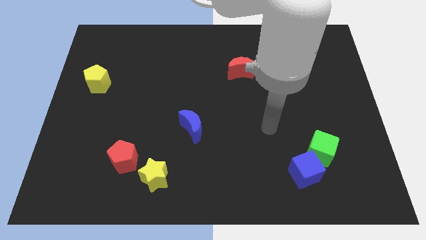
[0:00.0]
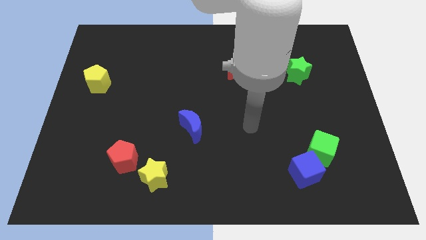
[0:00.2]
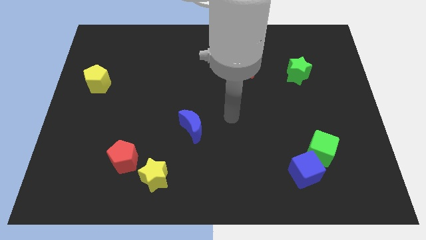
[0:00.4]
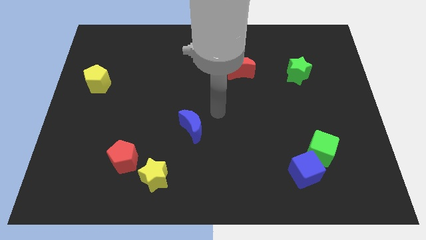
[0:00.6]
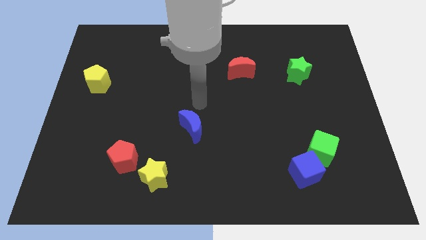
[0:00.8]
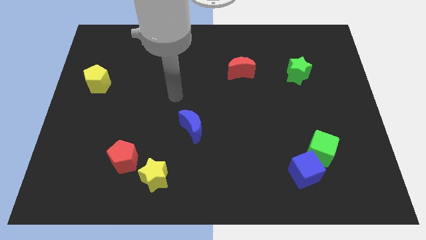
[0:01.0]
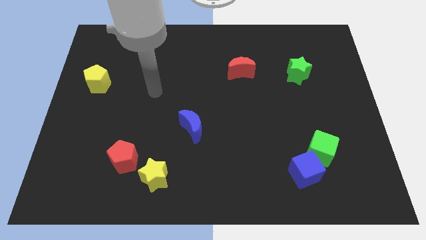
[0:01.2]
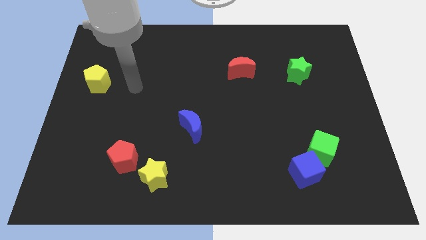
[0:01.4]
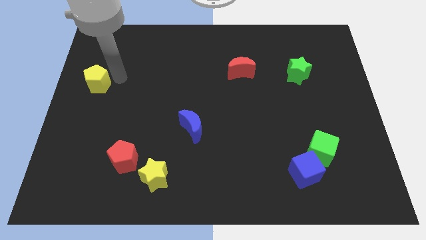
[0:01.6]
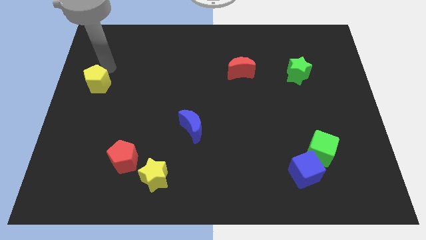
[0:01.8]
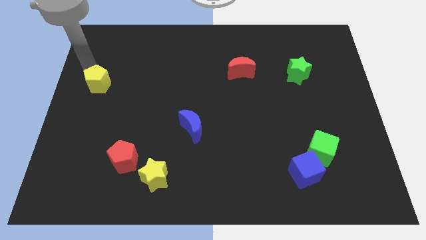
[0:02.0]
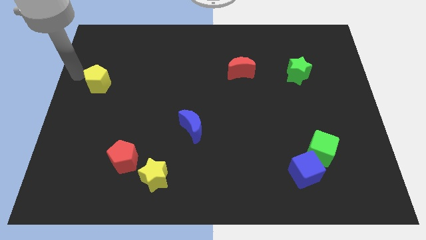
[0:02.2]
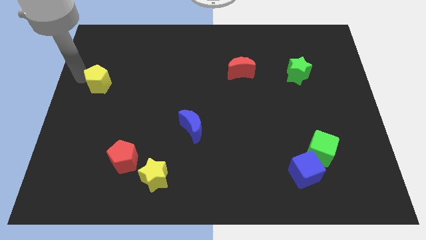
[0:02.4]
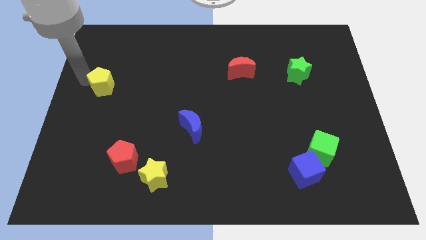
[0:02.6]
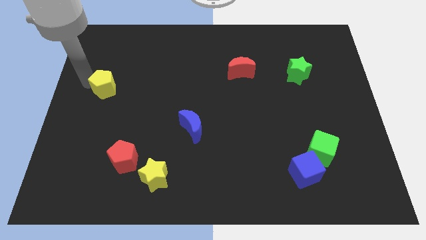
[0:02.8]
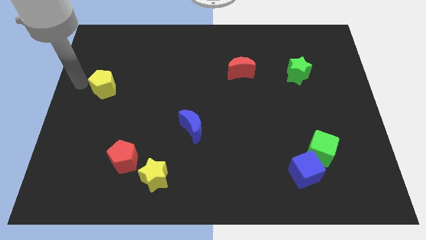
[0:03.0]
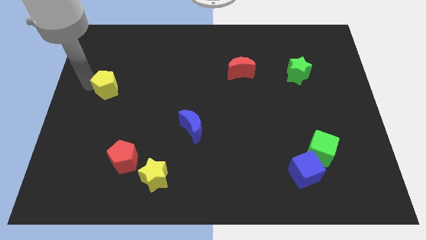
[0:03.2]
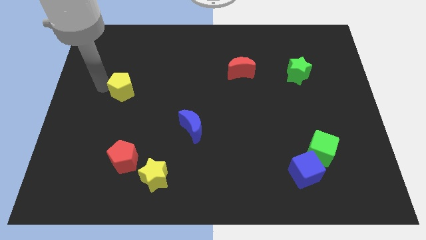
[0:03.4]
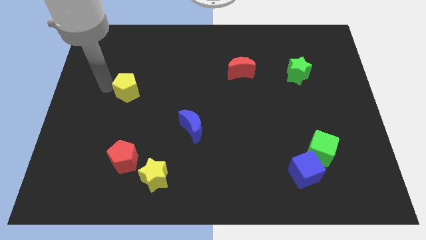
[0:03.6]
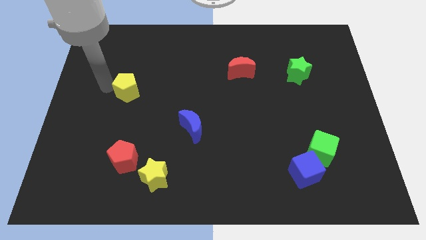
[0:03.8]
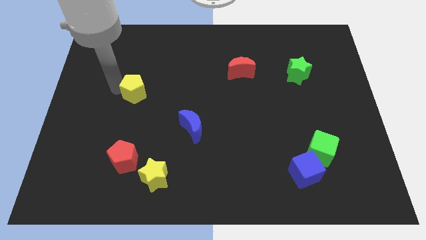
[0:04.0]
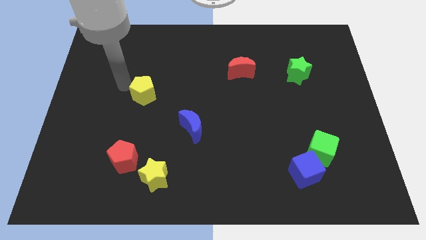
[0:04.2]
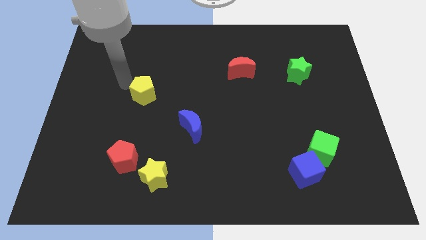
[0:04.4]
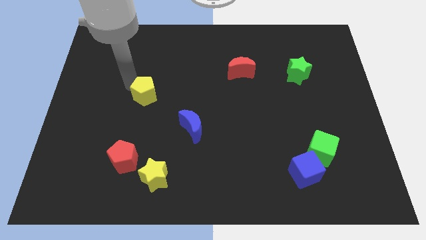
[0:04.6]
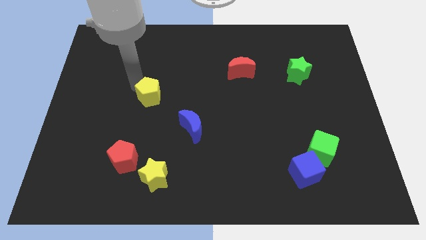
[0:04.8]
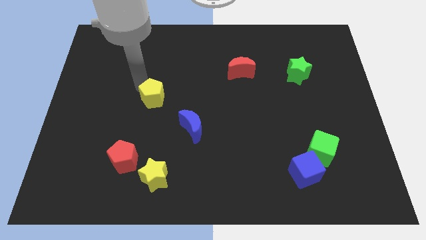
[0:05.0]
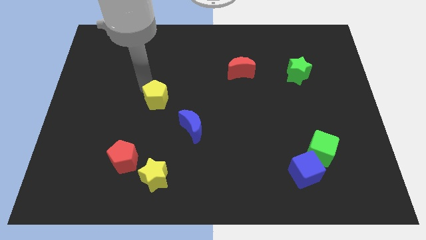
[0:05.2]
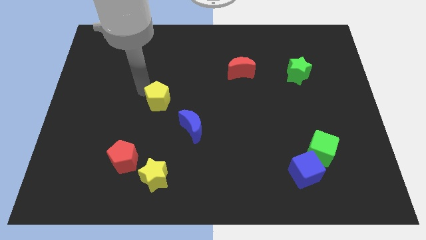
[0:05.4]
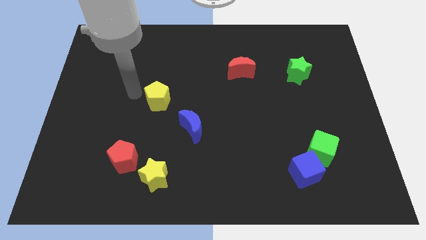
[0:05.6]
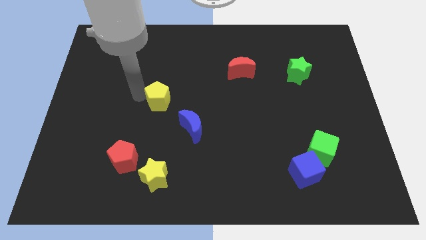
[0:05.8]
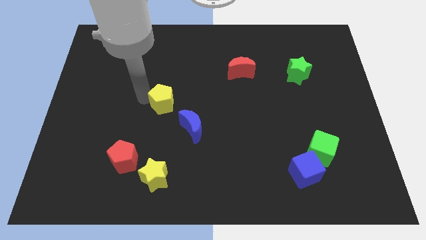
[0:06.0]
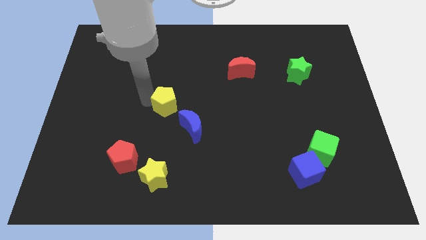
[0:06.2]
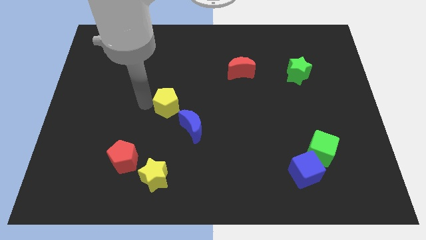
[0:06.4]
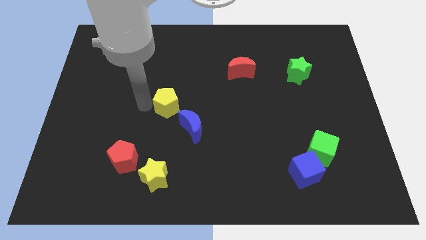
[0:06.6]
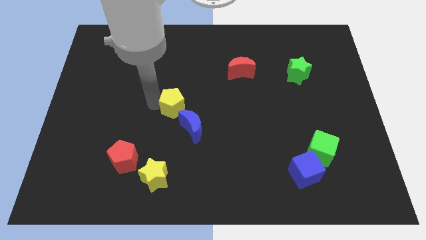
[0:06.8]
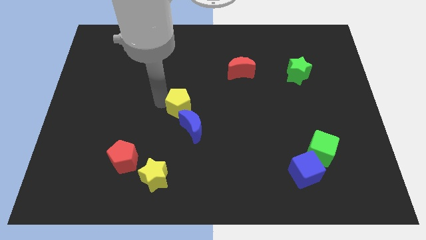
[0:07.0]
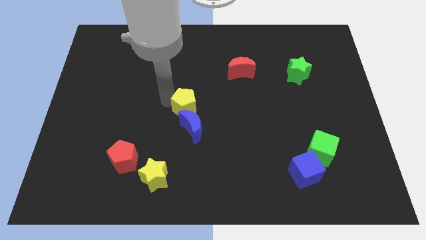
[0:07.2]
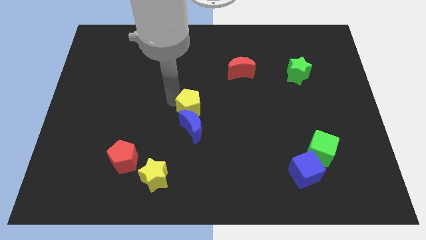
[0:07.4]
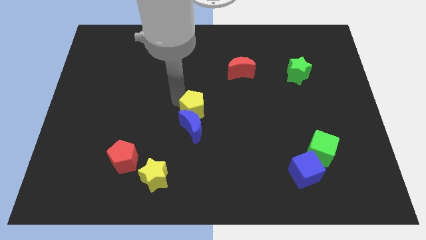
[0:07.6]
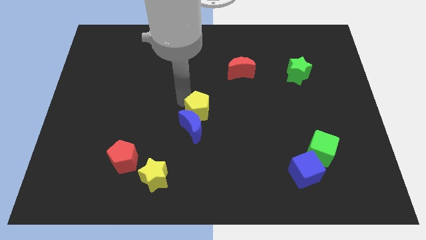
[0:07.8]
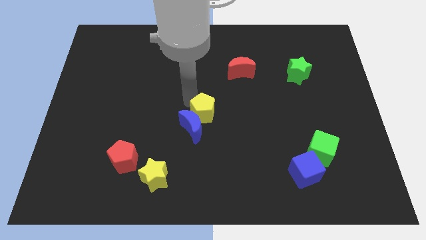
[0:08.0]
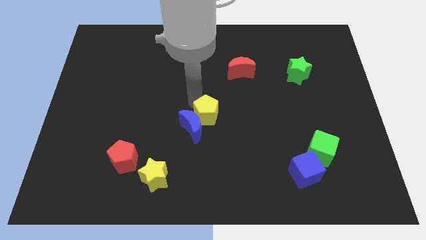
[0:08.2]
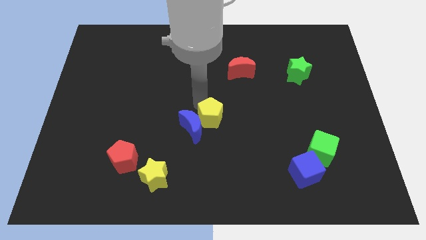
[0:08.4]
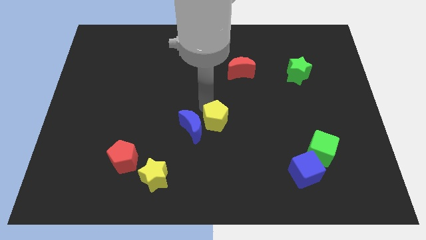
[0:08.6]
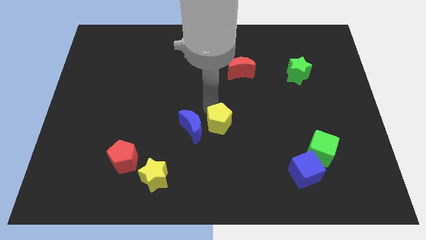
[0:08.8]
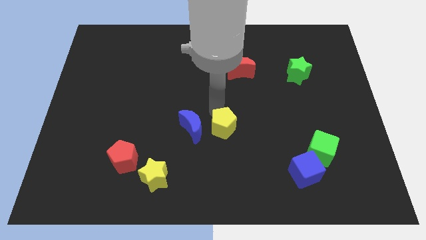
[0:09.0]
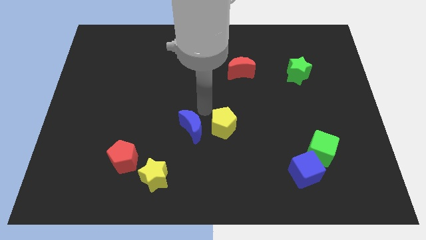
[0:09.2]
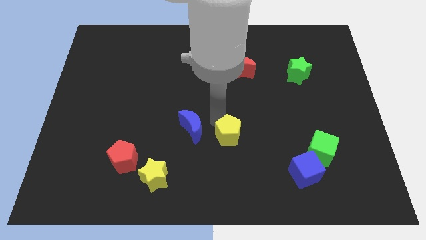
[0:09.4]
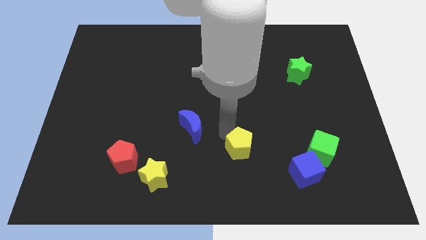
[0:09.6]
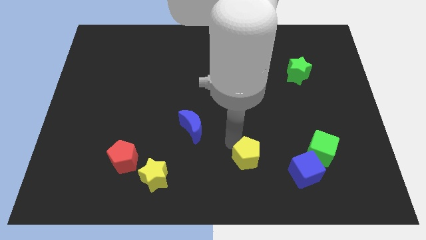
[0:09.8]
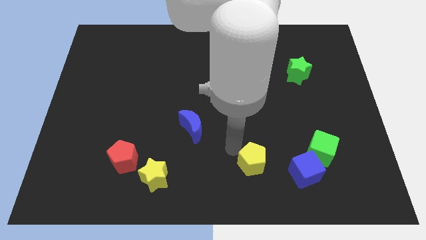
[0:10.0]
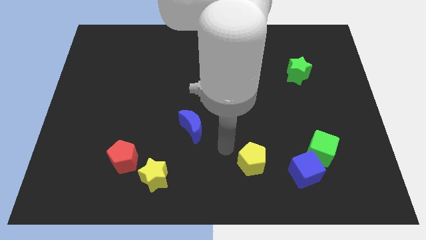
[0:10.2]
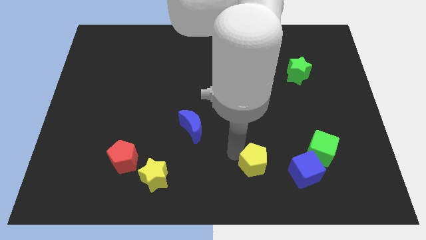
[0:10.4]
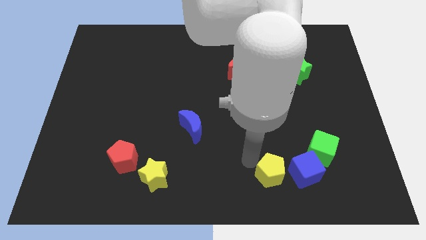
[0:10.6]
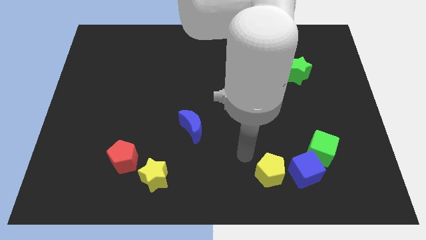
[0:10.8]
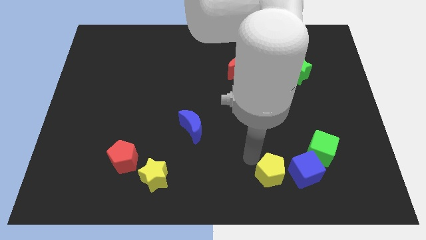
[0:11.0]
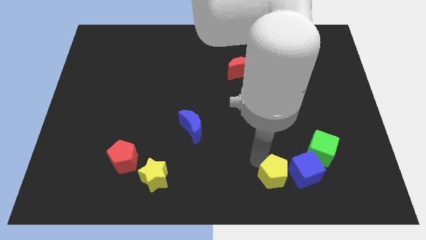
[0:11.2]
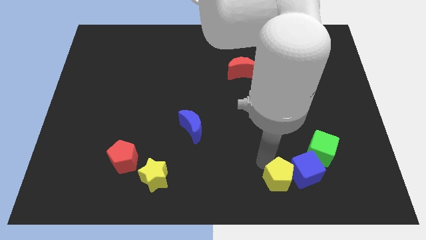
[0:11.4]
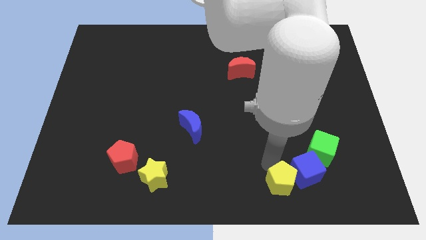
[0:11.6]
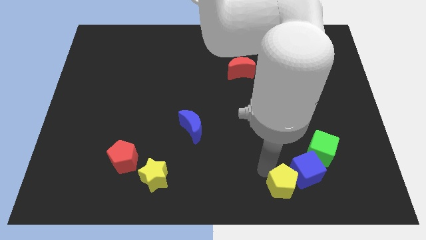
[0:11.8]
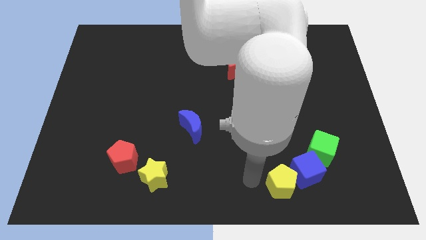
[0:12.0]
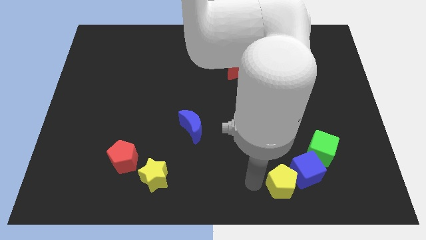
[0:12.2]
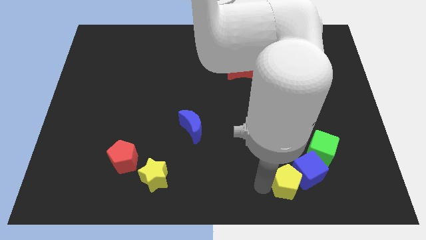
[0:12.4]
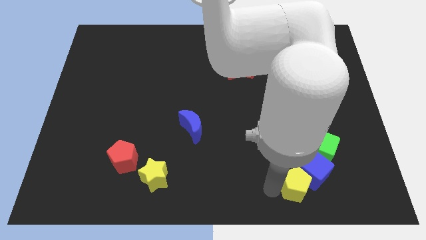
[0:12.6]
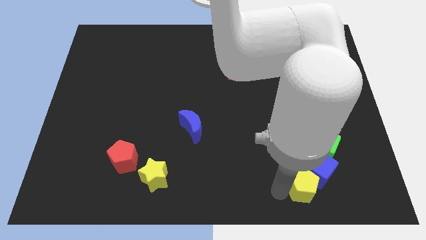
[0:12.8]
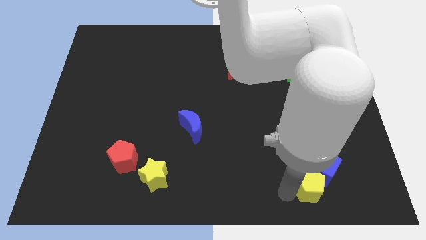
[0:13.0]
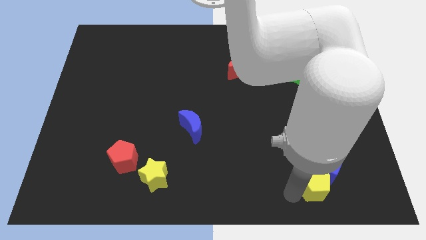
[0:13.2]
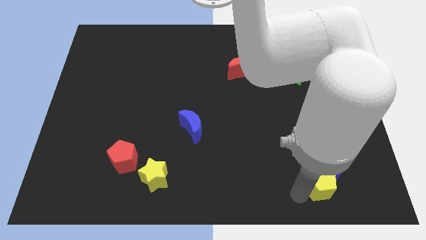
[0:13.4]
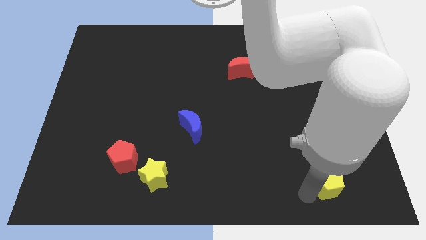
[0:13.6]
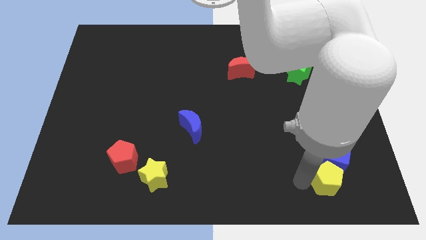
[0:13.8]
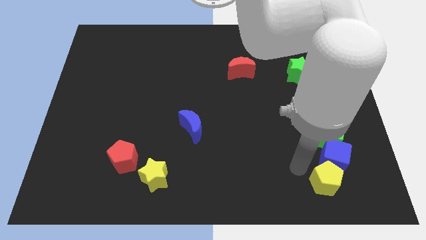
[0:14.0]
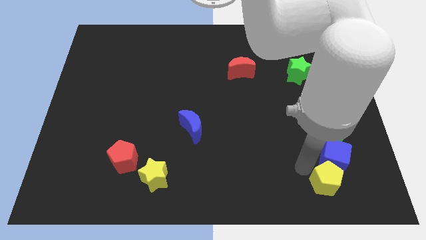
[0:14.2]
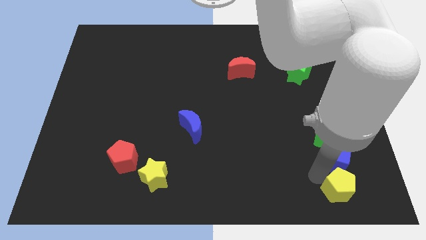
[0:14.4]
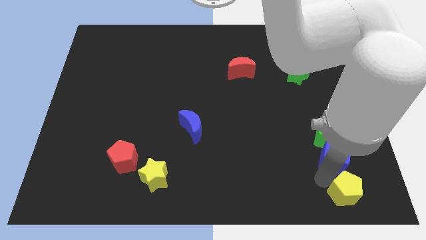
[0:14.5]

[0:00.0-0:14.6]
push the yellow pentagon to the bottom right of the board

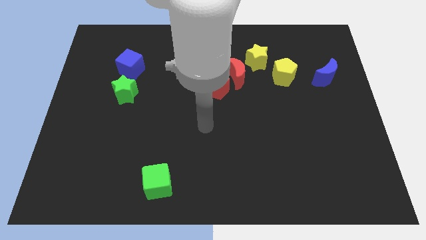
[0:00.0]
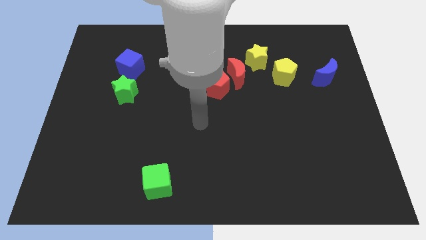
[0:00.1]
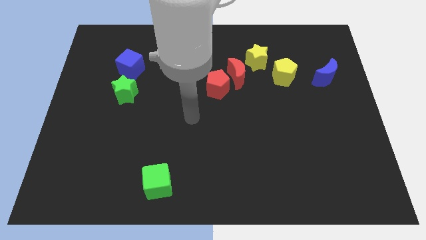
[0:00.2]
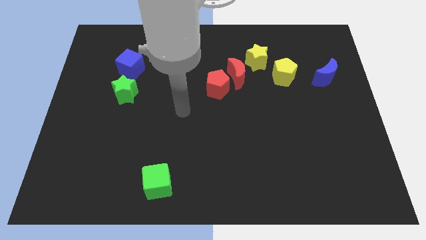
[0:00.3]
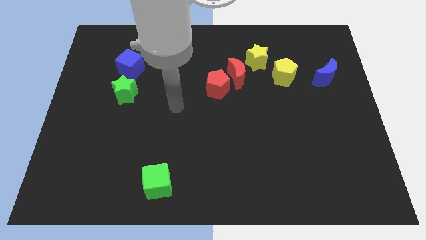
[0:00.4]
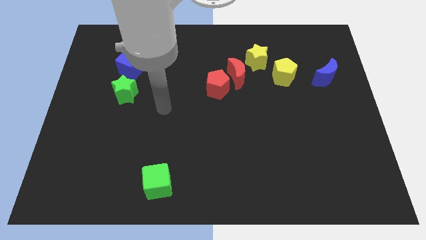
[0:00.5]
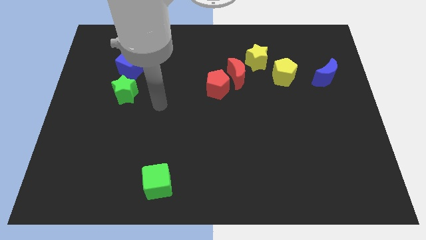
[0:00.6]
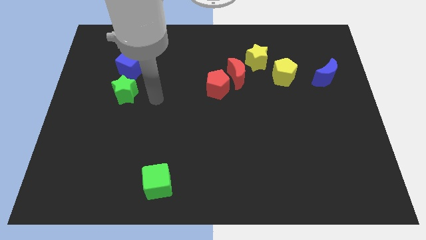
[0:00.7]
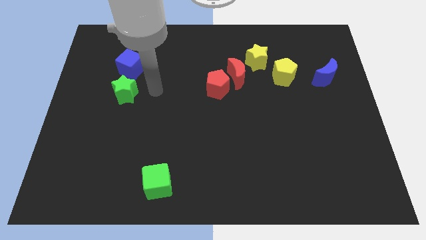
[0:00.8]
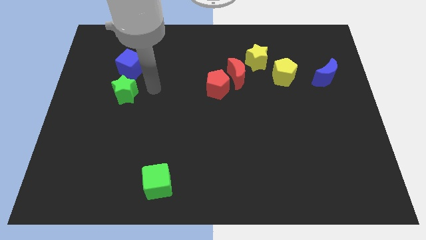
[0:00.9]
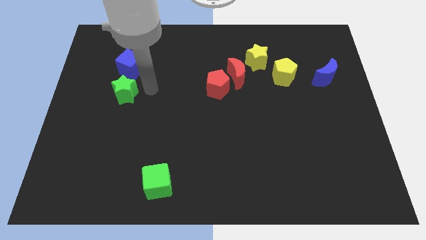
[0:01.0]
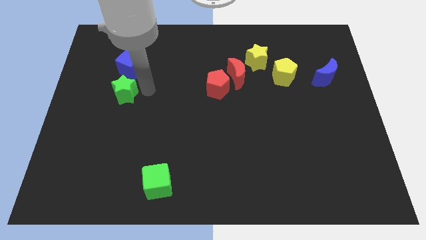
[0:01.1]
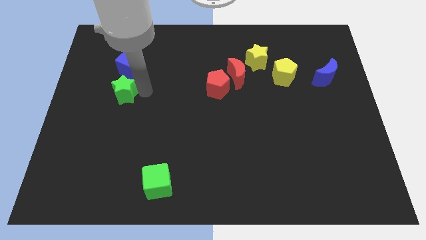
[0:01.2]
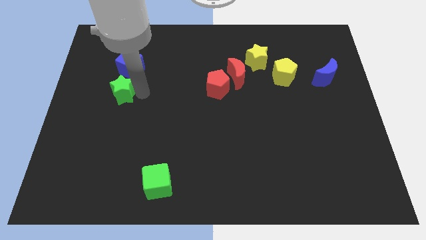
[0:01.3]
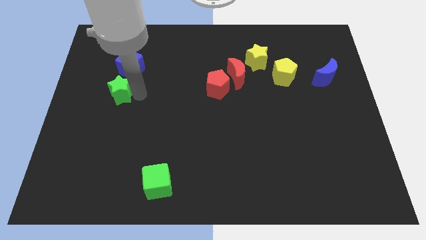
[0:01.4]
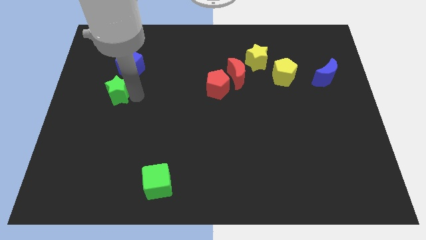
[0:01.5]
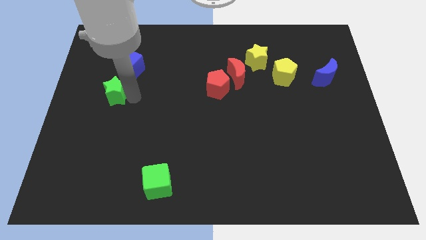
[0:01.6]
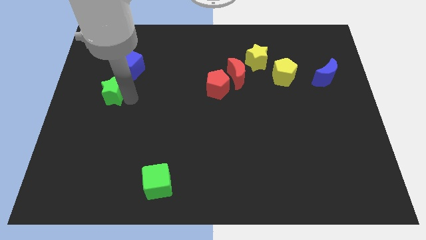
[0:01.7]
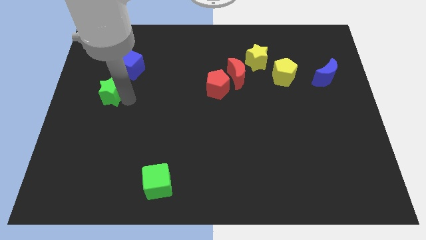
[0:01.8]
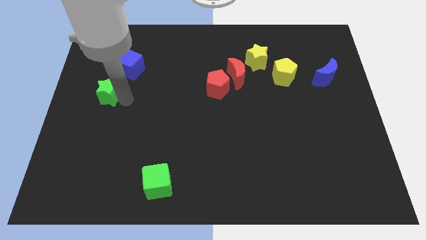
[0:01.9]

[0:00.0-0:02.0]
push the green star to the center left
